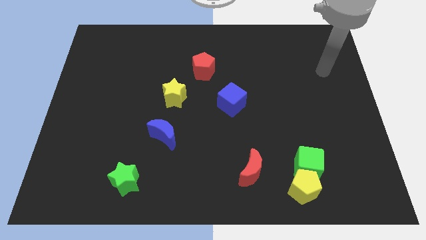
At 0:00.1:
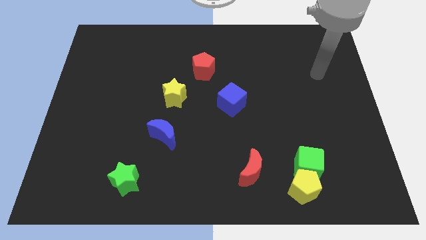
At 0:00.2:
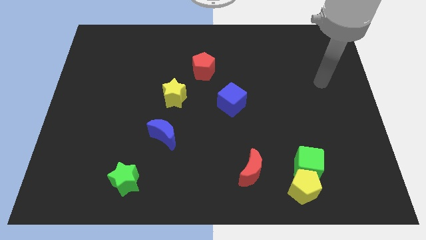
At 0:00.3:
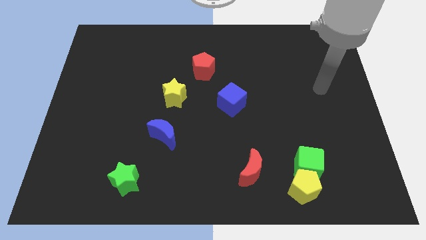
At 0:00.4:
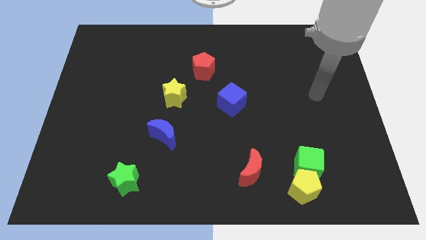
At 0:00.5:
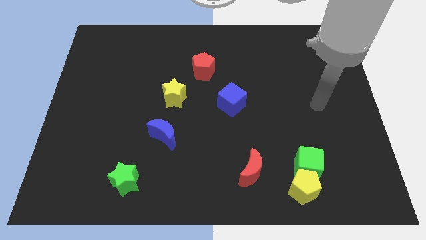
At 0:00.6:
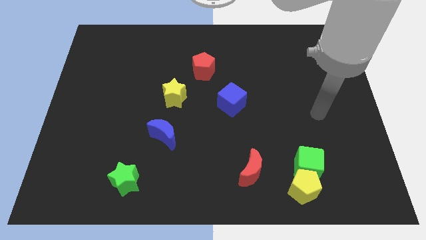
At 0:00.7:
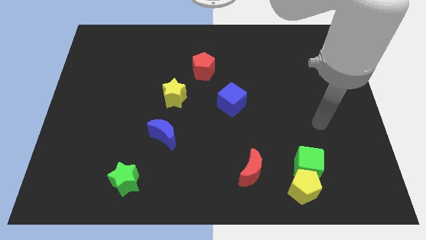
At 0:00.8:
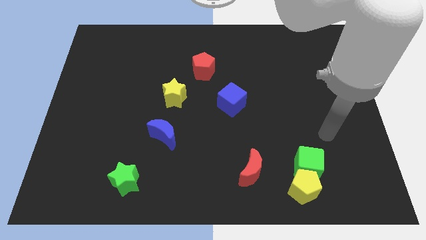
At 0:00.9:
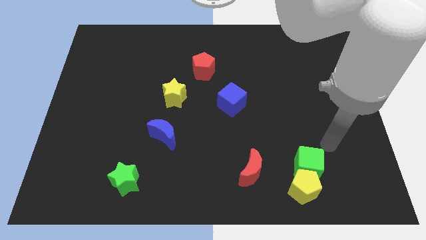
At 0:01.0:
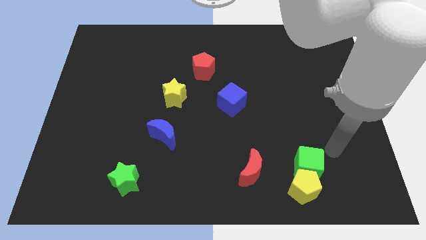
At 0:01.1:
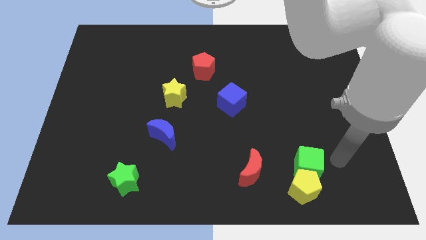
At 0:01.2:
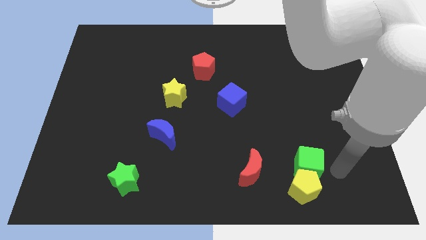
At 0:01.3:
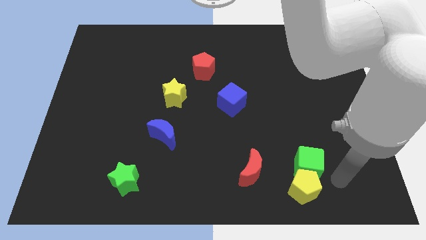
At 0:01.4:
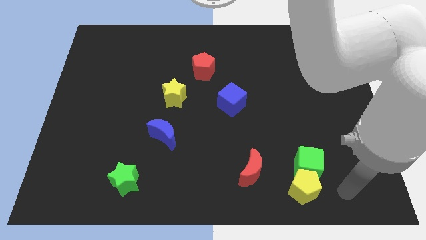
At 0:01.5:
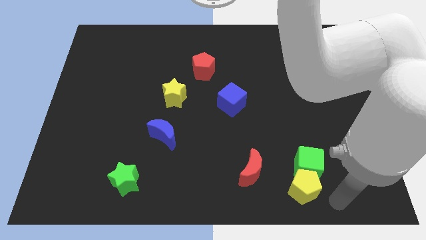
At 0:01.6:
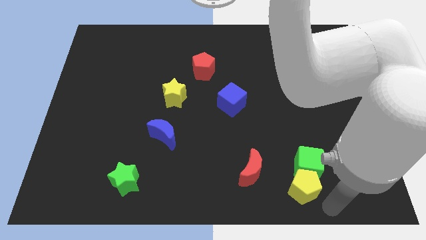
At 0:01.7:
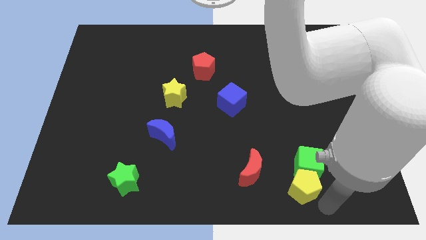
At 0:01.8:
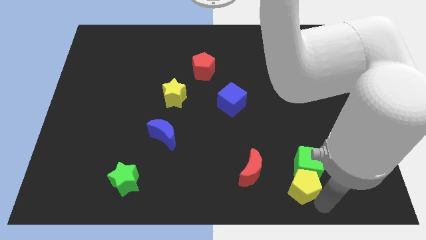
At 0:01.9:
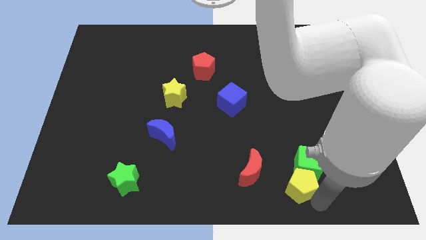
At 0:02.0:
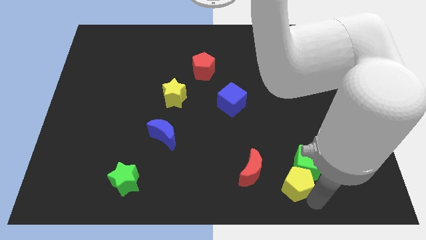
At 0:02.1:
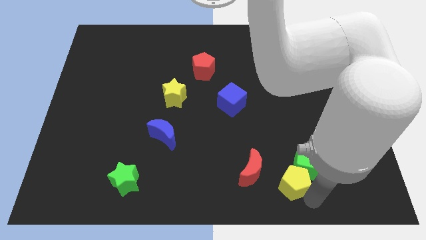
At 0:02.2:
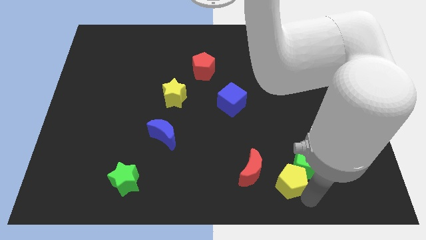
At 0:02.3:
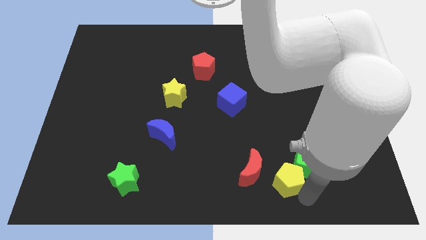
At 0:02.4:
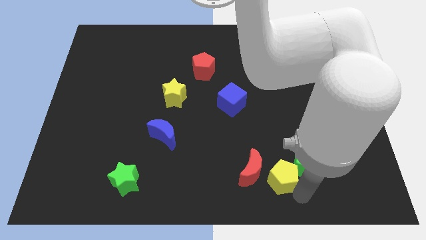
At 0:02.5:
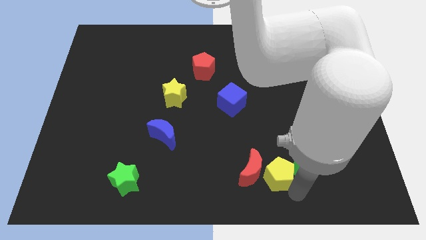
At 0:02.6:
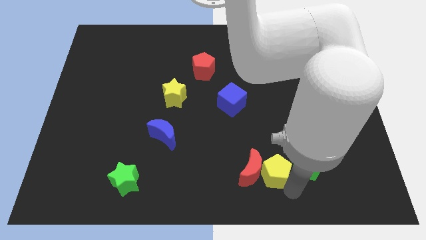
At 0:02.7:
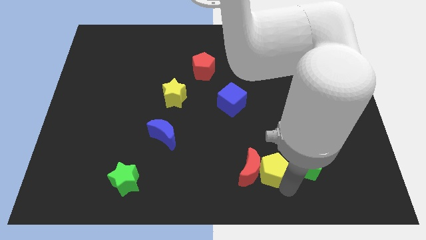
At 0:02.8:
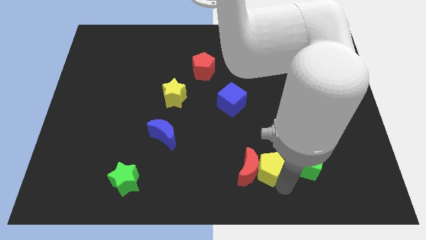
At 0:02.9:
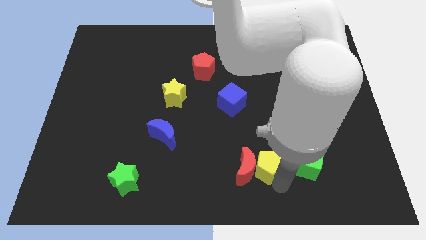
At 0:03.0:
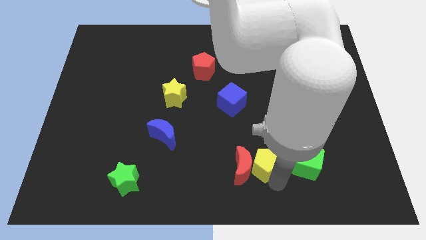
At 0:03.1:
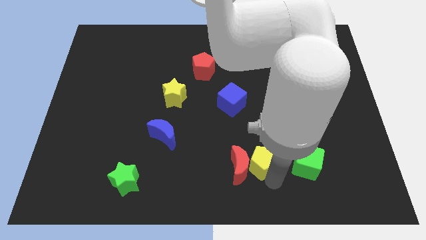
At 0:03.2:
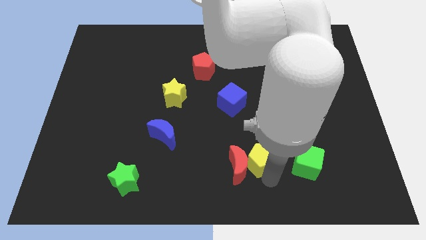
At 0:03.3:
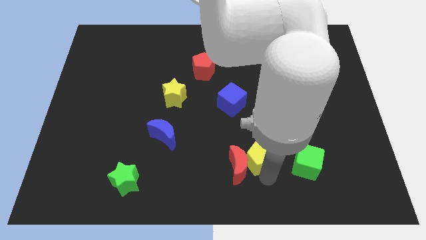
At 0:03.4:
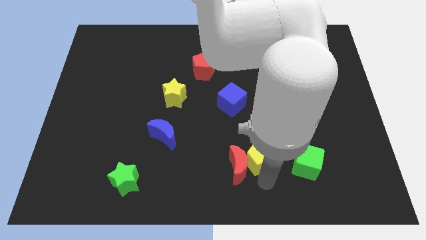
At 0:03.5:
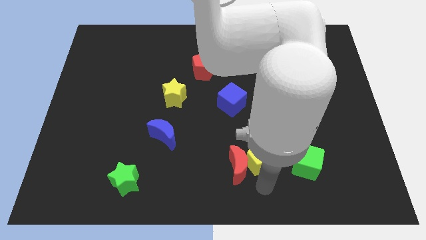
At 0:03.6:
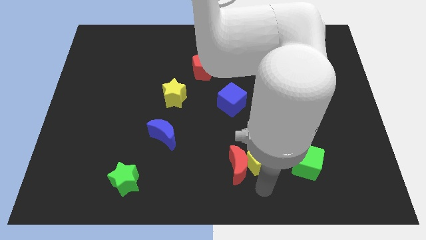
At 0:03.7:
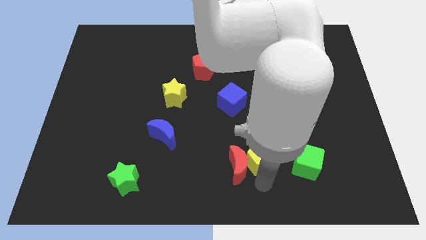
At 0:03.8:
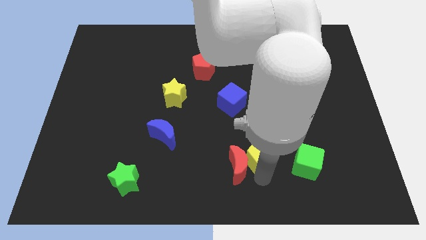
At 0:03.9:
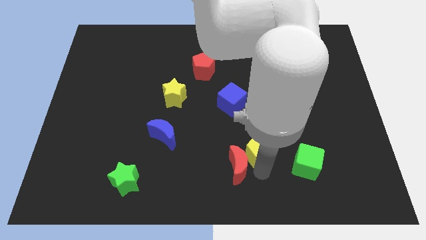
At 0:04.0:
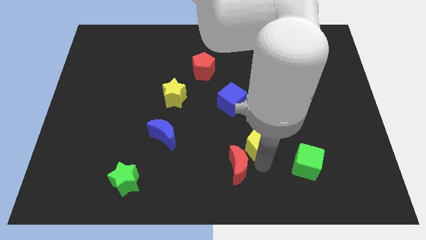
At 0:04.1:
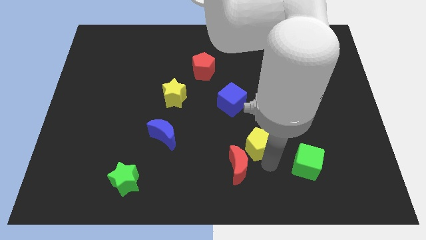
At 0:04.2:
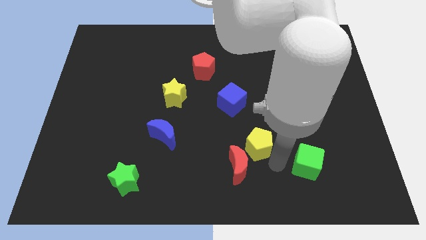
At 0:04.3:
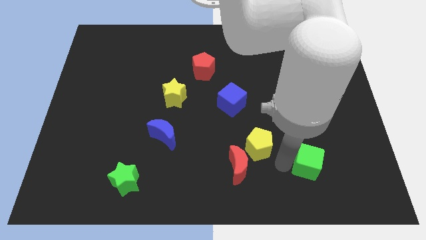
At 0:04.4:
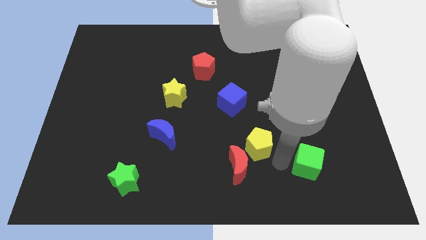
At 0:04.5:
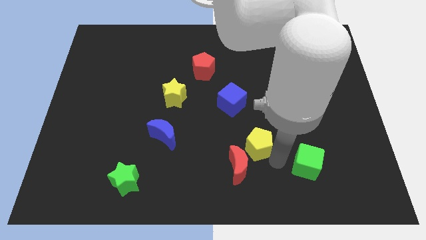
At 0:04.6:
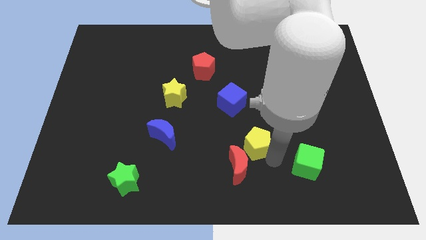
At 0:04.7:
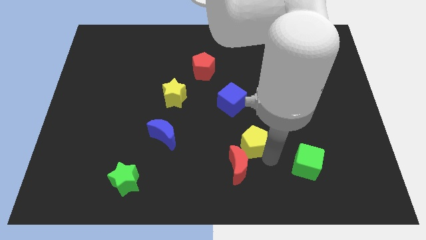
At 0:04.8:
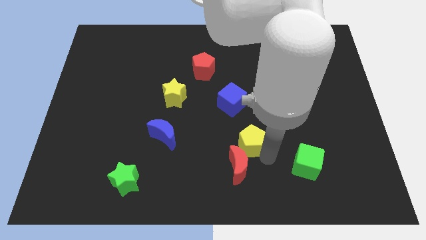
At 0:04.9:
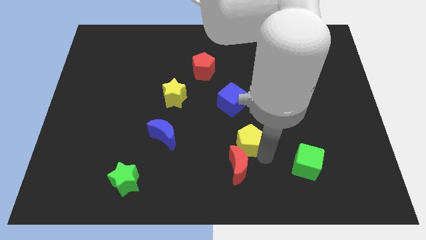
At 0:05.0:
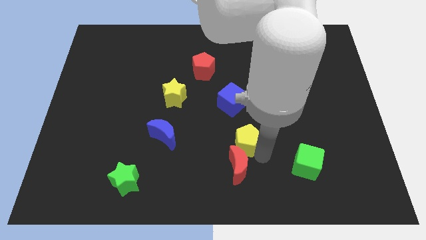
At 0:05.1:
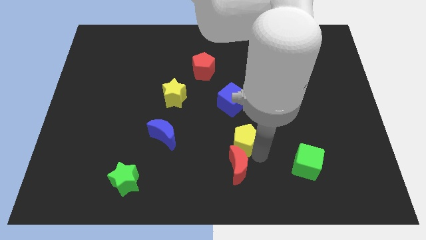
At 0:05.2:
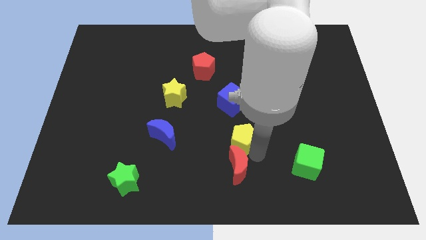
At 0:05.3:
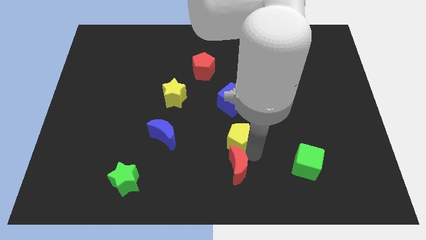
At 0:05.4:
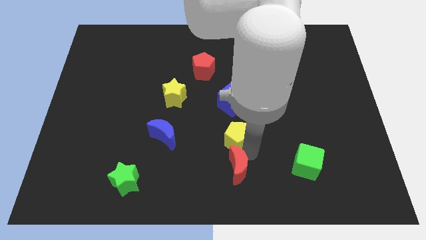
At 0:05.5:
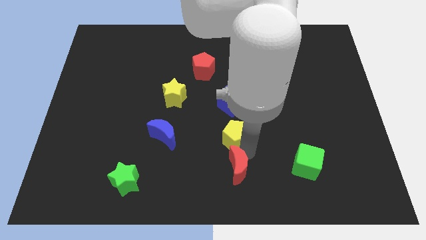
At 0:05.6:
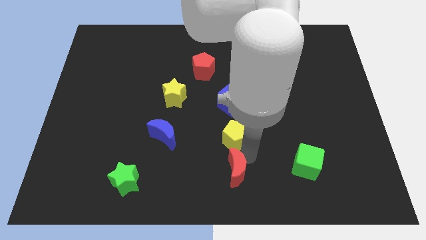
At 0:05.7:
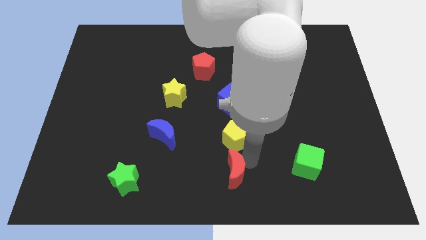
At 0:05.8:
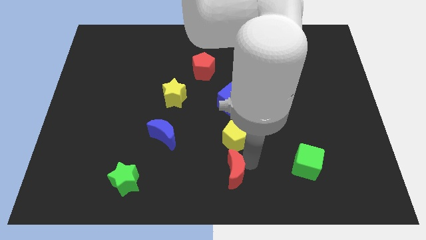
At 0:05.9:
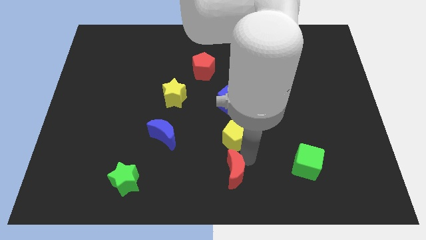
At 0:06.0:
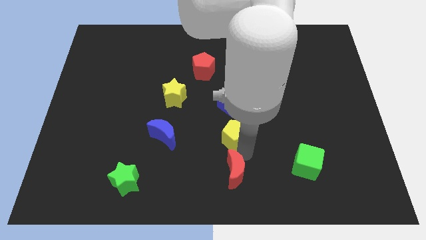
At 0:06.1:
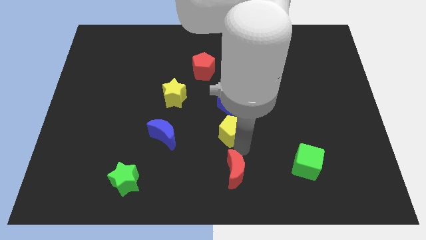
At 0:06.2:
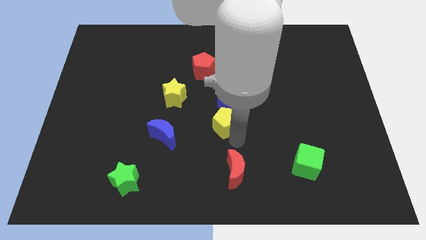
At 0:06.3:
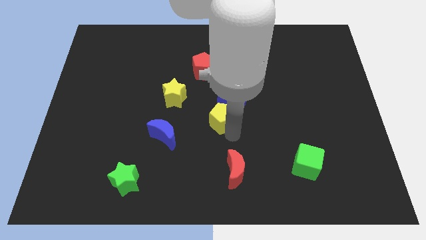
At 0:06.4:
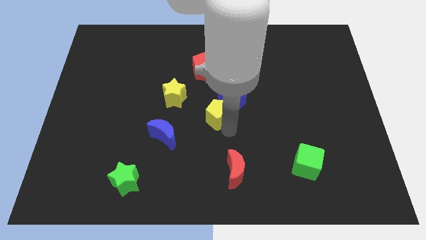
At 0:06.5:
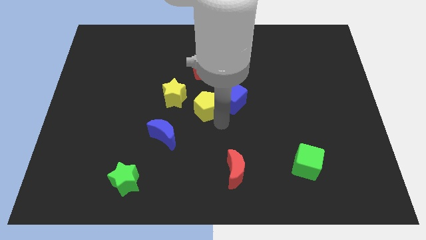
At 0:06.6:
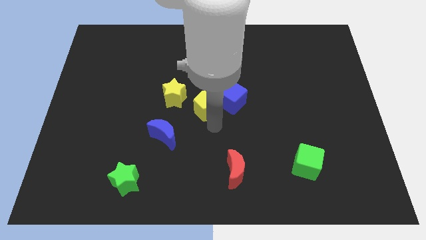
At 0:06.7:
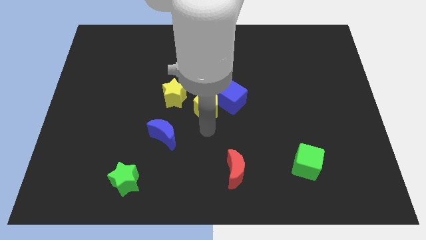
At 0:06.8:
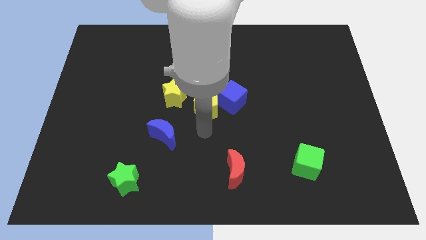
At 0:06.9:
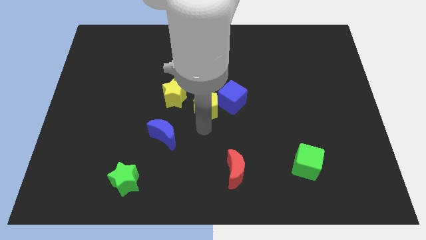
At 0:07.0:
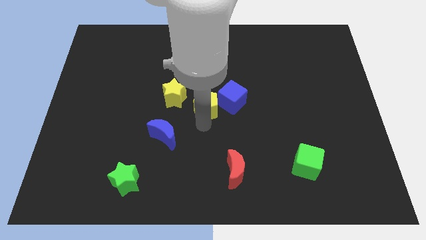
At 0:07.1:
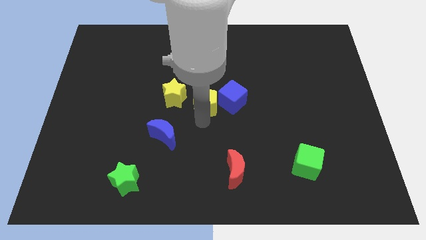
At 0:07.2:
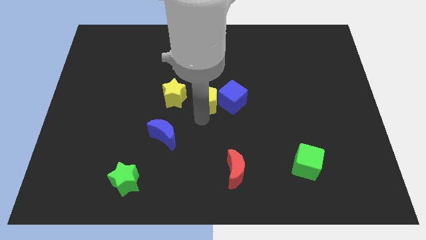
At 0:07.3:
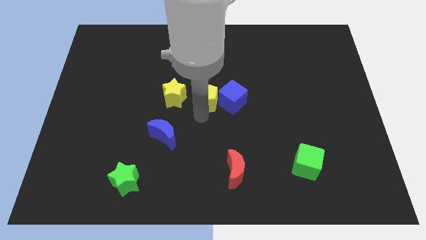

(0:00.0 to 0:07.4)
push the yellow pentagon diagonally up and to the left of the blue cube
